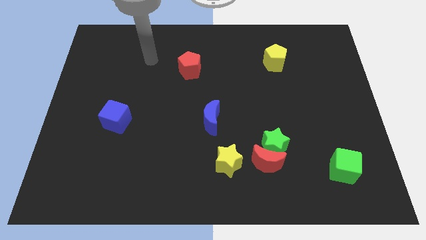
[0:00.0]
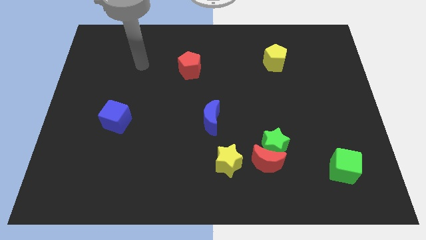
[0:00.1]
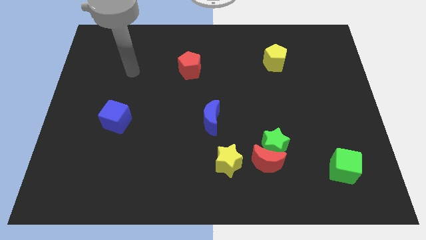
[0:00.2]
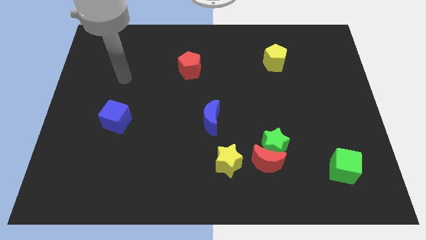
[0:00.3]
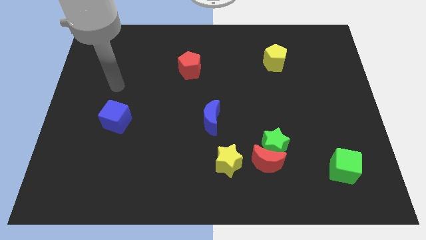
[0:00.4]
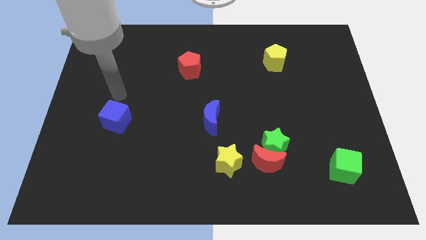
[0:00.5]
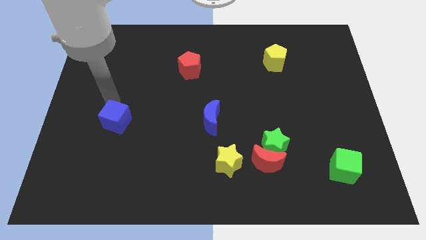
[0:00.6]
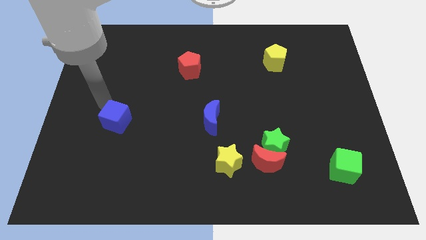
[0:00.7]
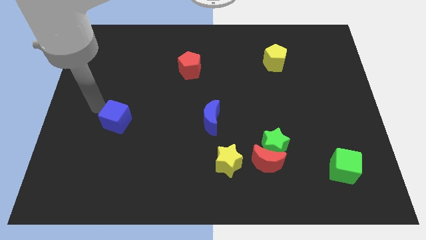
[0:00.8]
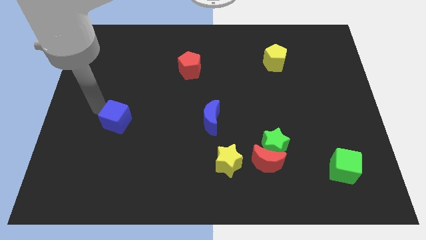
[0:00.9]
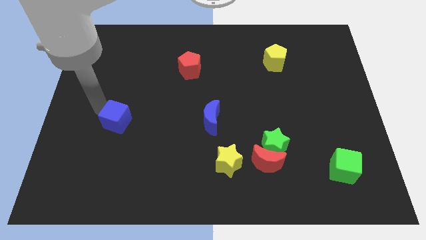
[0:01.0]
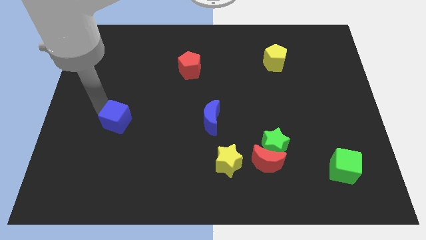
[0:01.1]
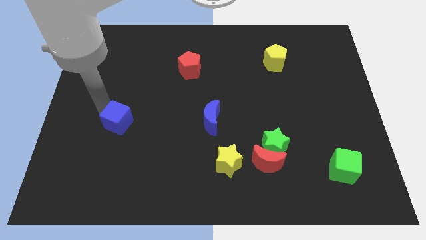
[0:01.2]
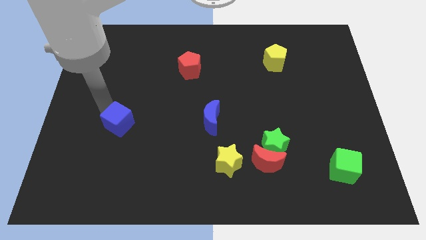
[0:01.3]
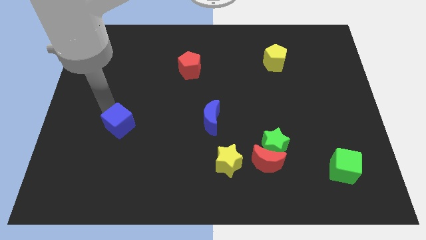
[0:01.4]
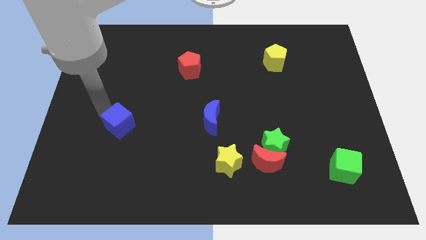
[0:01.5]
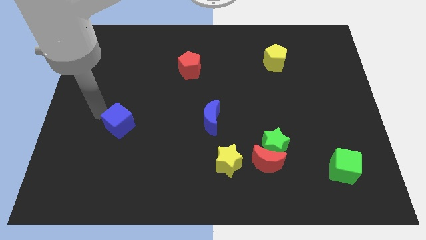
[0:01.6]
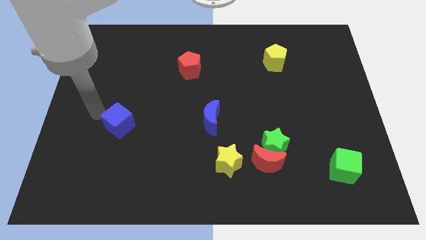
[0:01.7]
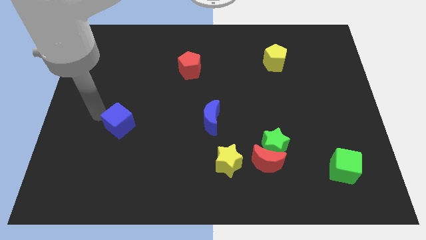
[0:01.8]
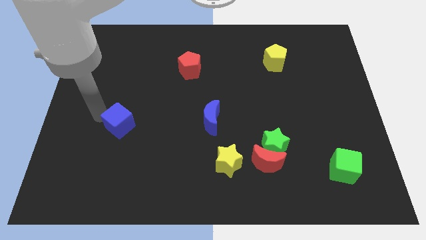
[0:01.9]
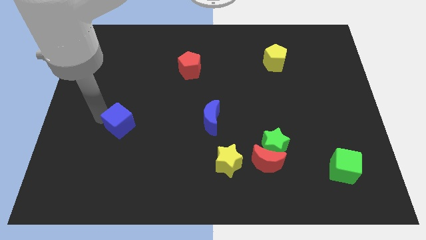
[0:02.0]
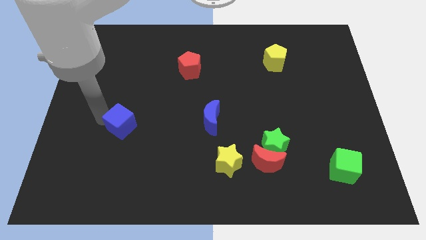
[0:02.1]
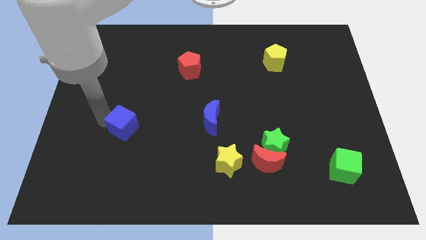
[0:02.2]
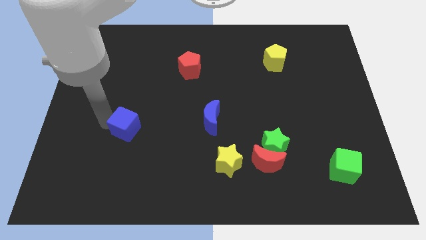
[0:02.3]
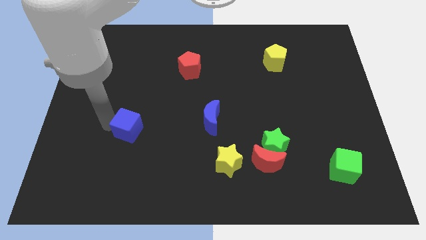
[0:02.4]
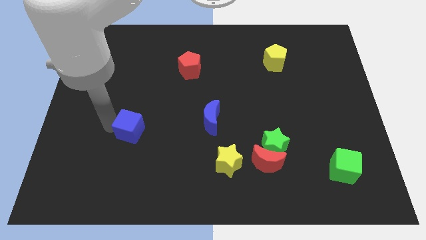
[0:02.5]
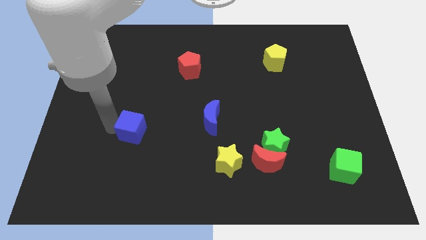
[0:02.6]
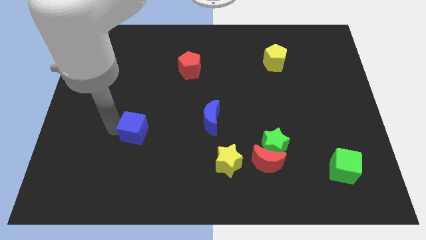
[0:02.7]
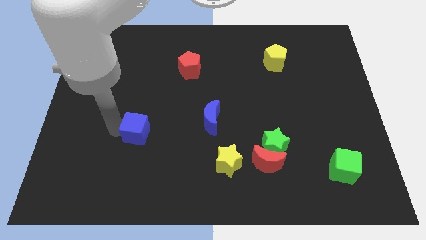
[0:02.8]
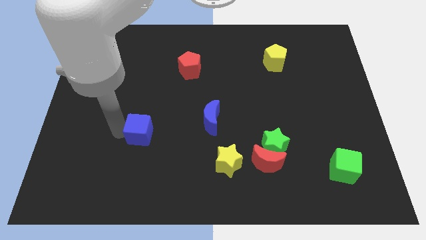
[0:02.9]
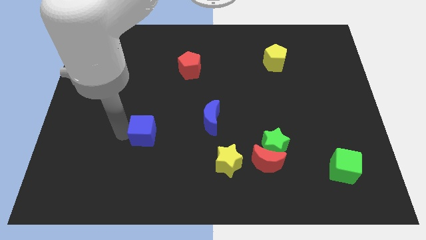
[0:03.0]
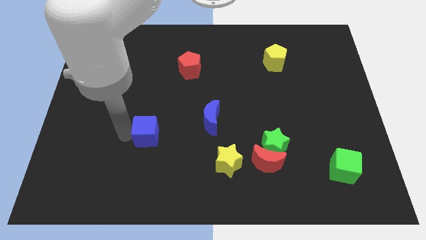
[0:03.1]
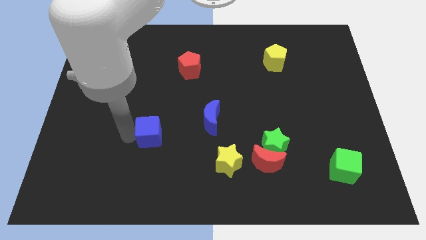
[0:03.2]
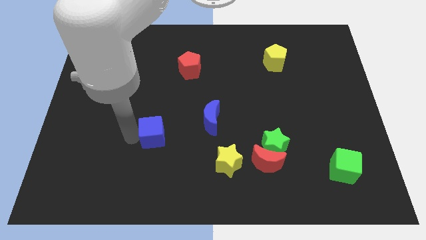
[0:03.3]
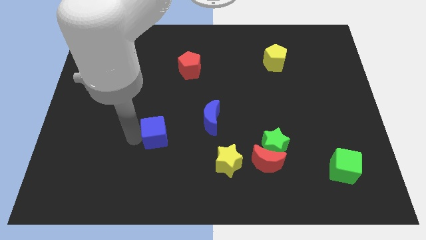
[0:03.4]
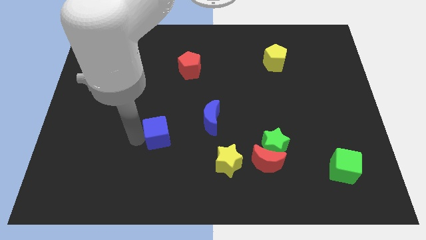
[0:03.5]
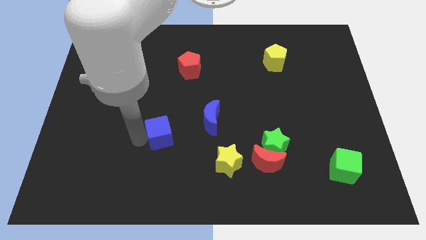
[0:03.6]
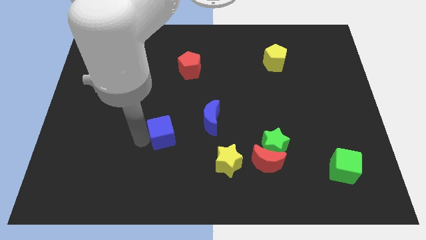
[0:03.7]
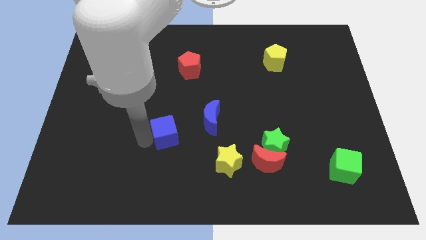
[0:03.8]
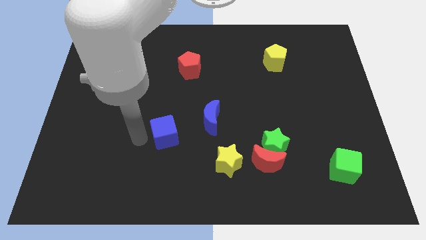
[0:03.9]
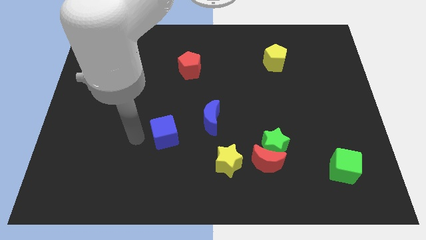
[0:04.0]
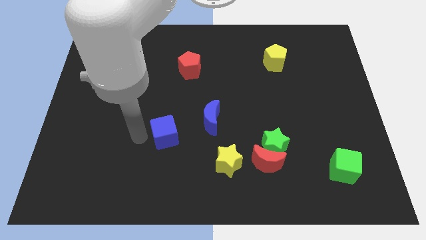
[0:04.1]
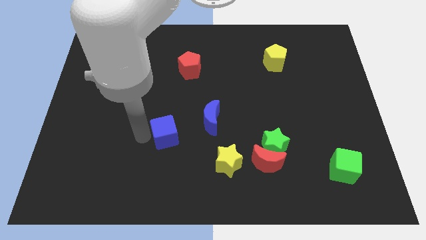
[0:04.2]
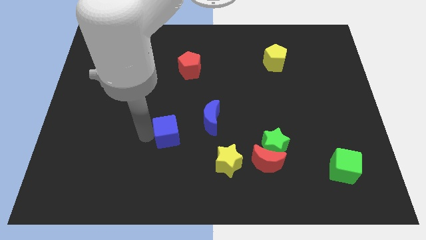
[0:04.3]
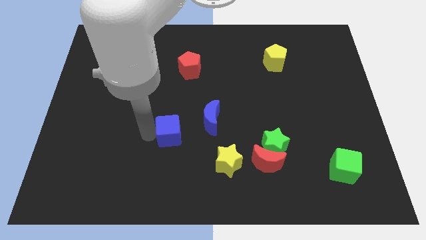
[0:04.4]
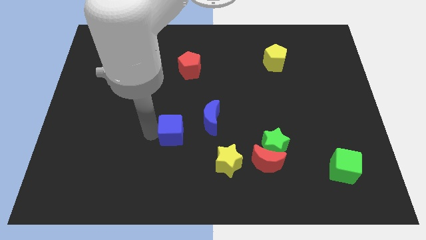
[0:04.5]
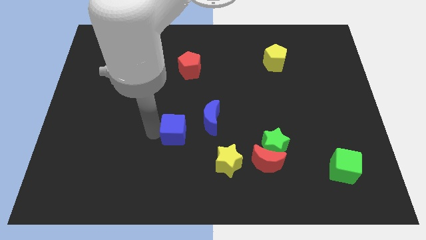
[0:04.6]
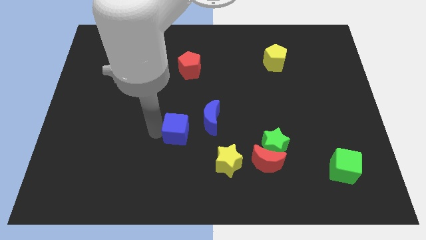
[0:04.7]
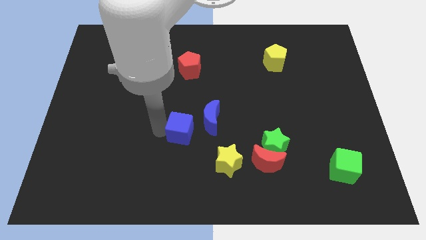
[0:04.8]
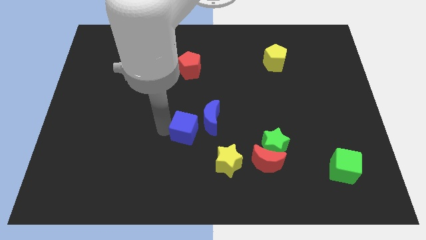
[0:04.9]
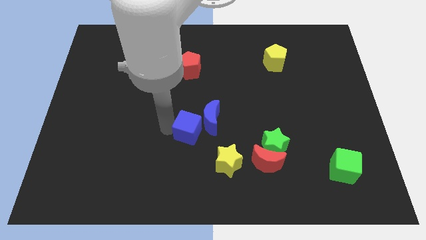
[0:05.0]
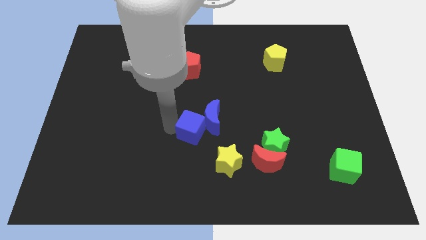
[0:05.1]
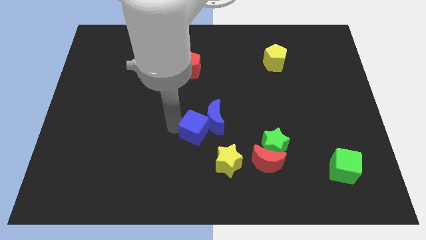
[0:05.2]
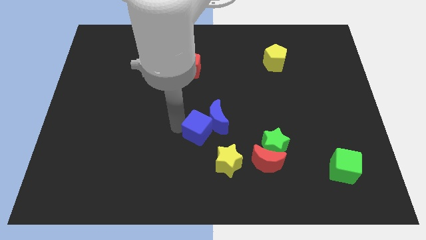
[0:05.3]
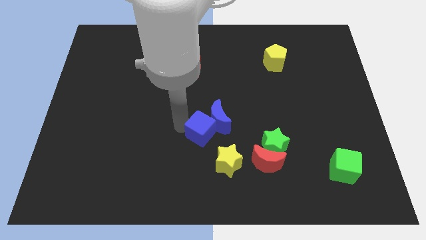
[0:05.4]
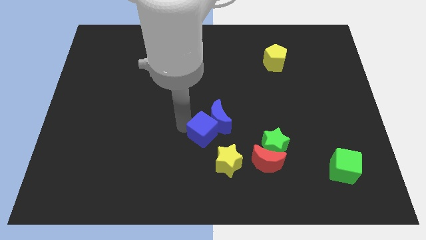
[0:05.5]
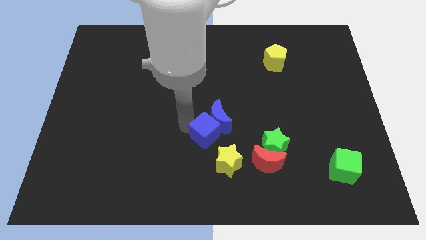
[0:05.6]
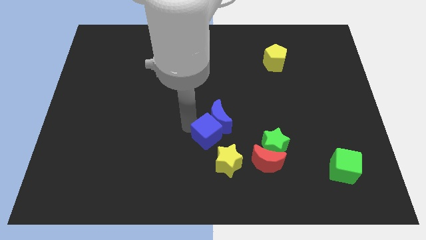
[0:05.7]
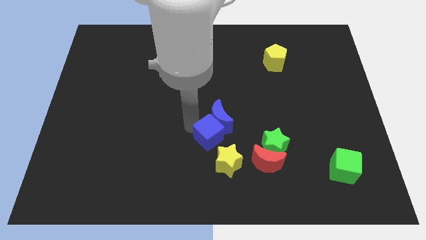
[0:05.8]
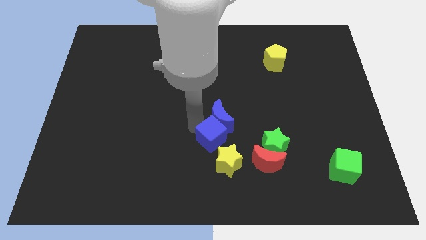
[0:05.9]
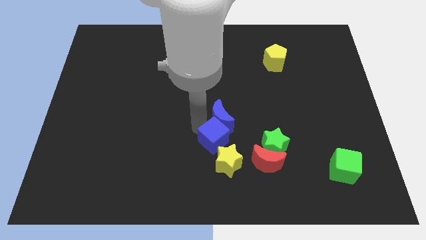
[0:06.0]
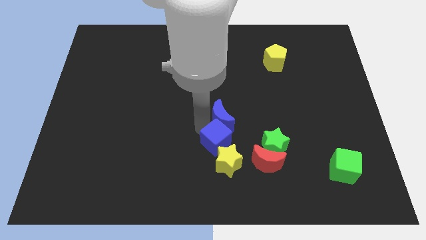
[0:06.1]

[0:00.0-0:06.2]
put the blue cube to the yellow star

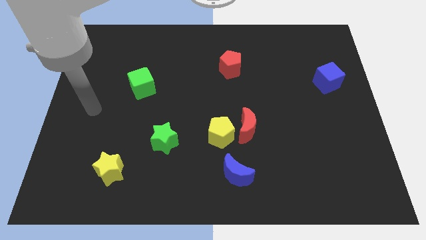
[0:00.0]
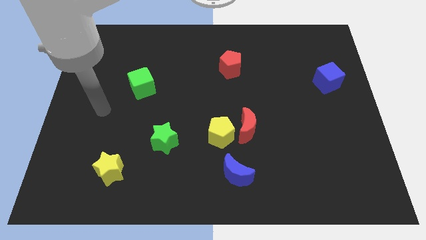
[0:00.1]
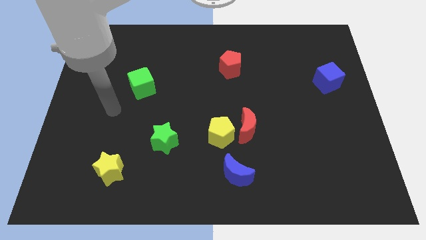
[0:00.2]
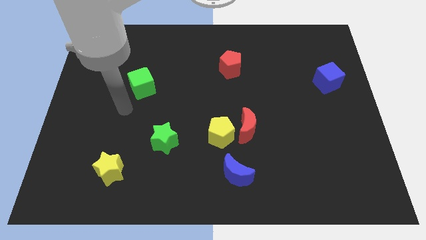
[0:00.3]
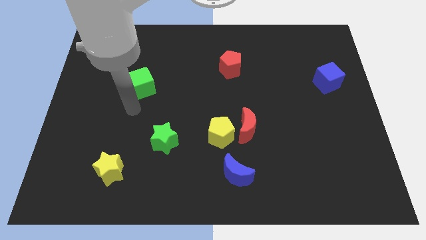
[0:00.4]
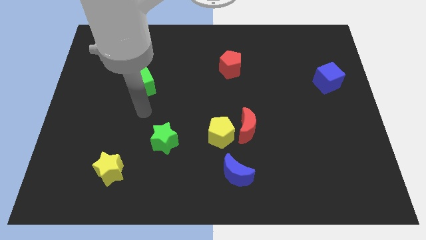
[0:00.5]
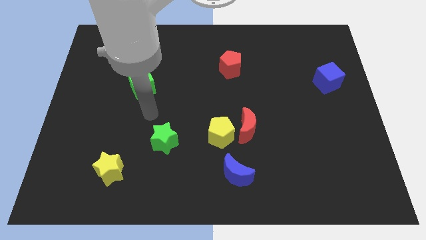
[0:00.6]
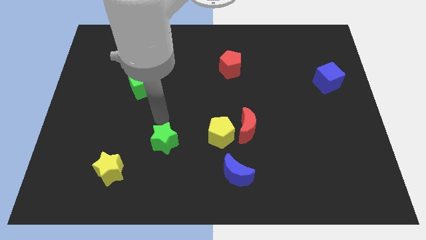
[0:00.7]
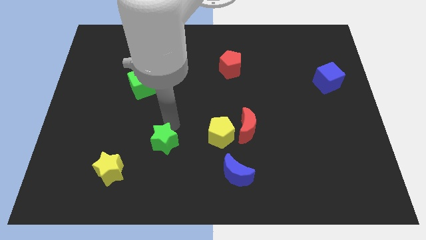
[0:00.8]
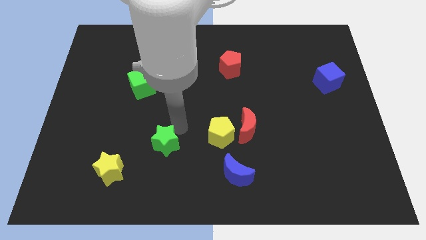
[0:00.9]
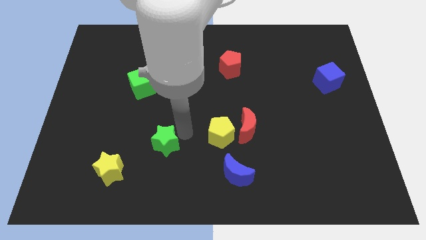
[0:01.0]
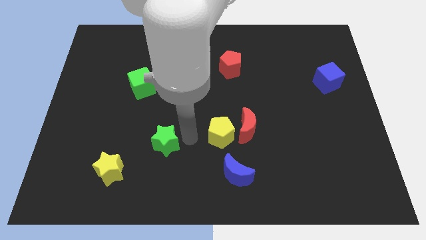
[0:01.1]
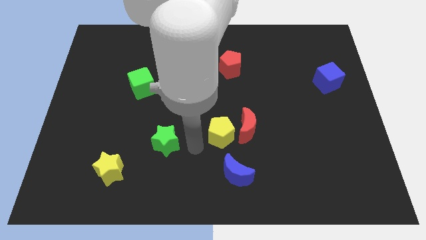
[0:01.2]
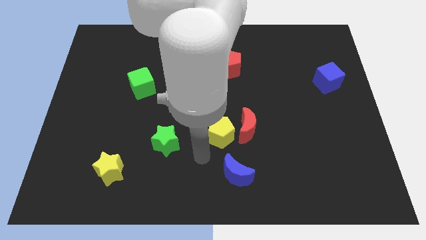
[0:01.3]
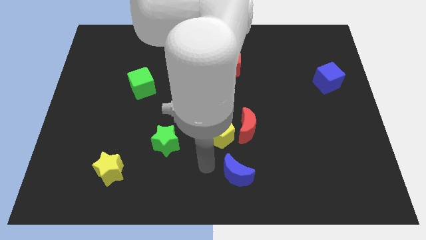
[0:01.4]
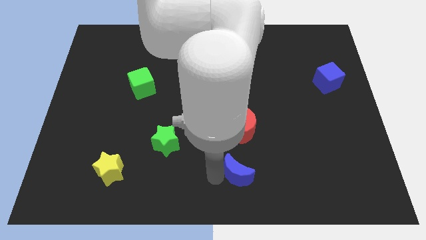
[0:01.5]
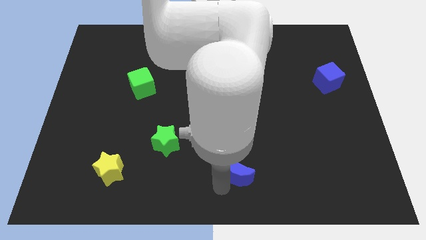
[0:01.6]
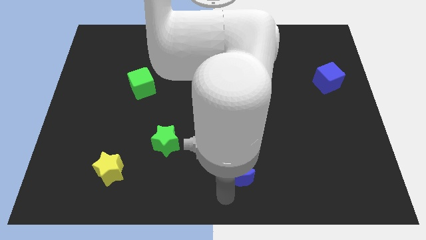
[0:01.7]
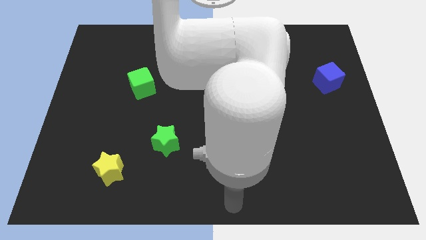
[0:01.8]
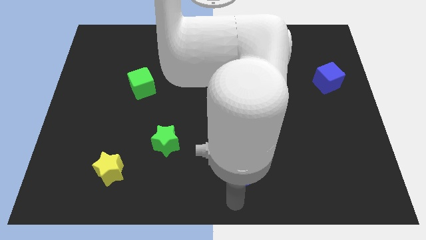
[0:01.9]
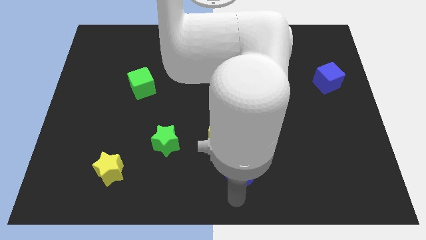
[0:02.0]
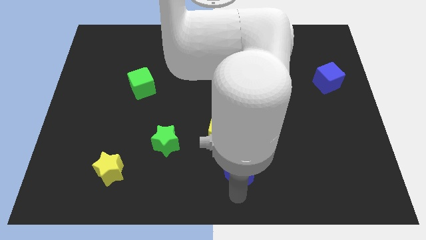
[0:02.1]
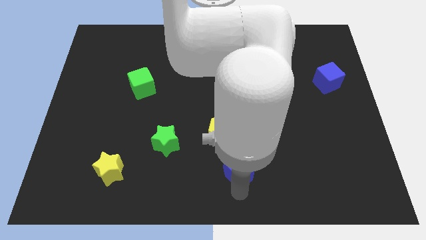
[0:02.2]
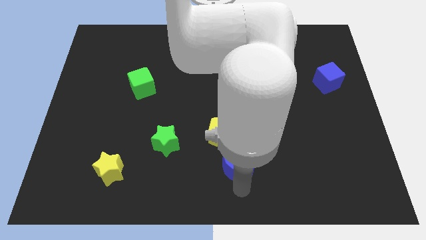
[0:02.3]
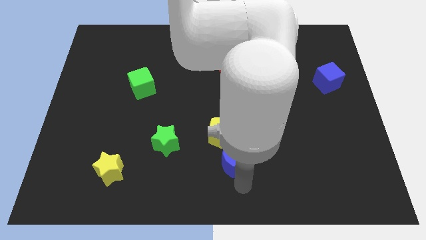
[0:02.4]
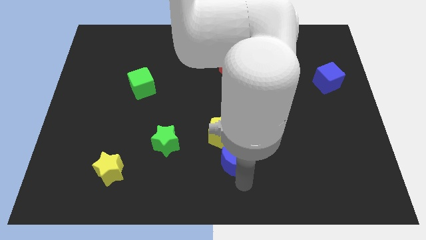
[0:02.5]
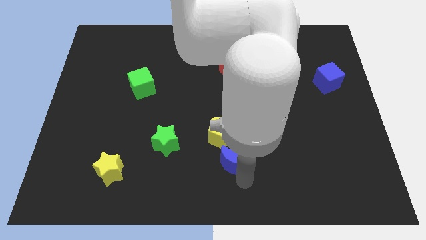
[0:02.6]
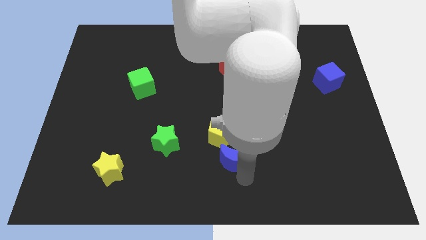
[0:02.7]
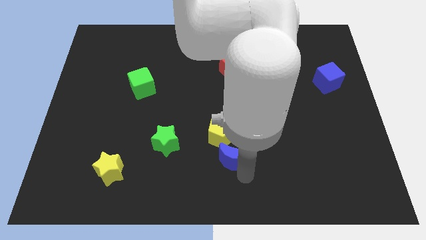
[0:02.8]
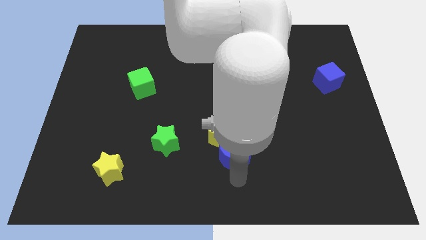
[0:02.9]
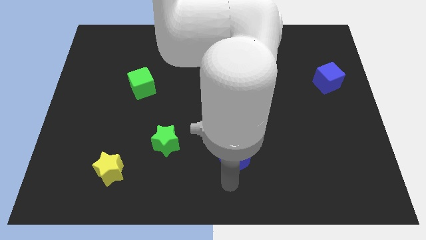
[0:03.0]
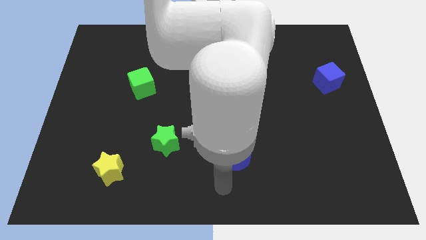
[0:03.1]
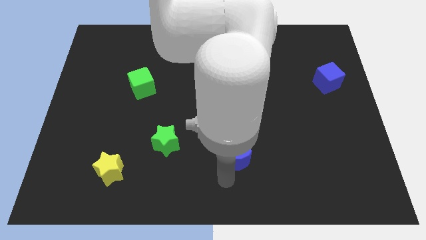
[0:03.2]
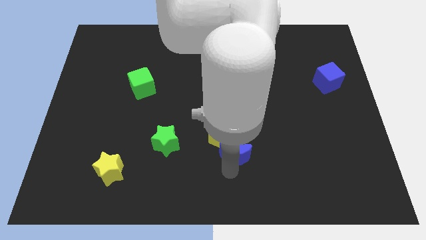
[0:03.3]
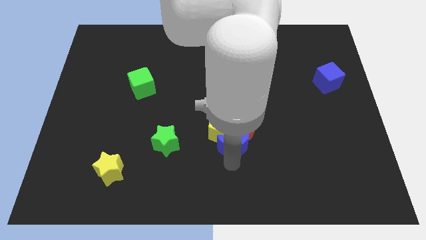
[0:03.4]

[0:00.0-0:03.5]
move the blue moon next to the red moon
